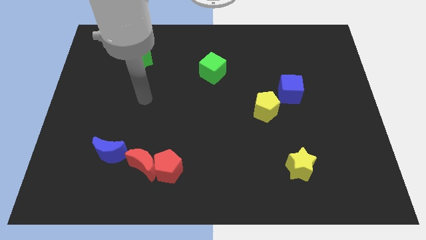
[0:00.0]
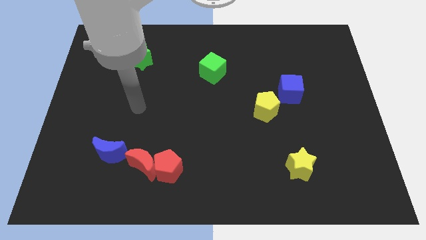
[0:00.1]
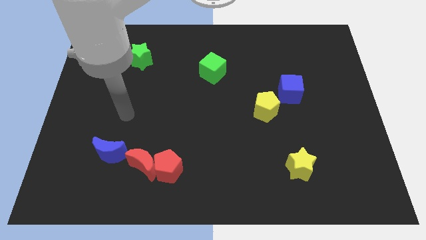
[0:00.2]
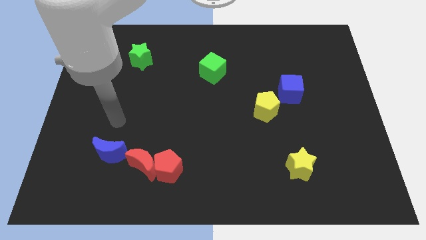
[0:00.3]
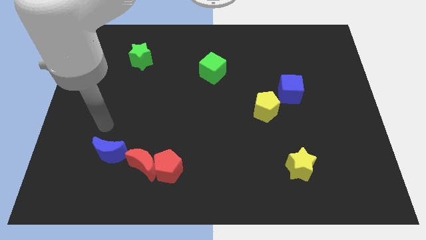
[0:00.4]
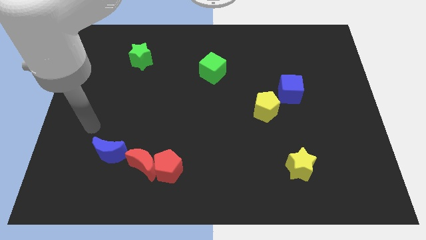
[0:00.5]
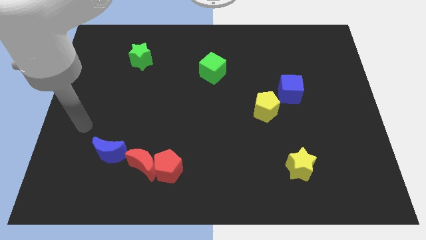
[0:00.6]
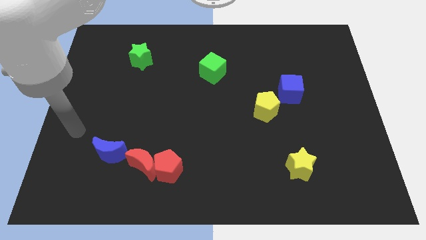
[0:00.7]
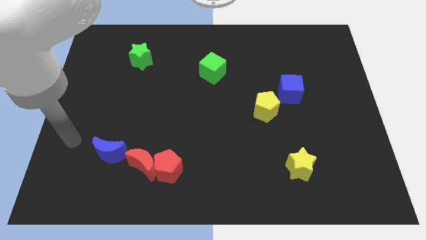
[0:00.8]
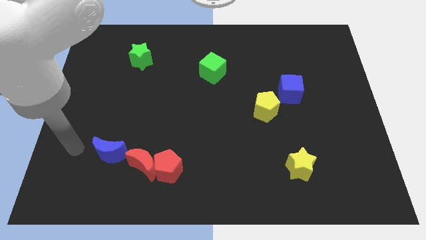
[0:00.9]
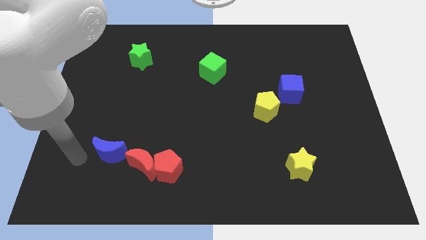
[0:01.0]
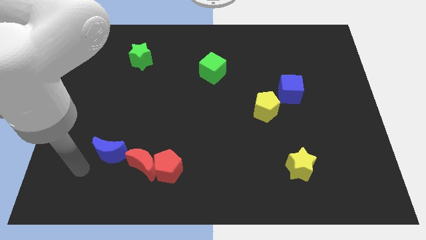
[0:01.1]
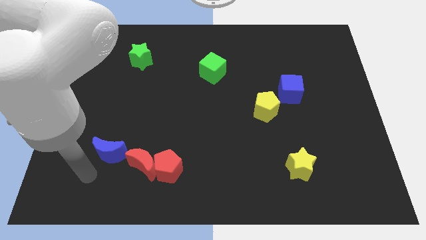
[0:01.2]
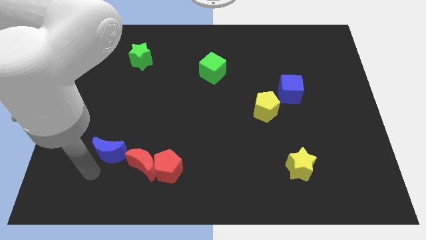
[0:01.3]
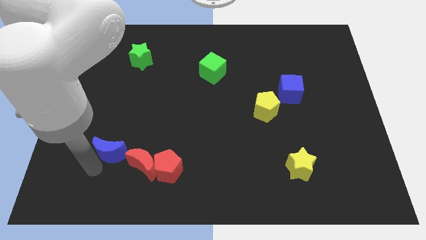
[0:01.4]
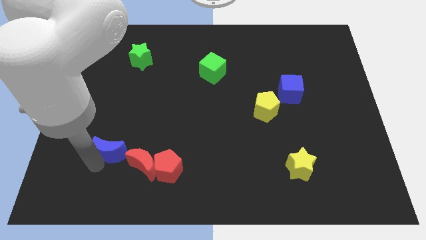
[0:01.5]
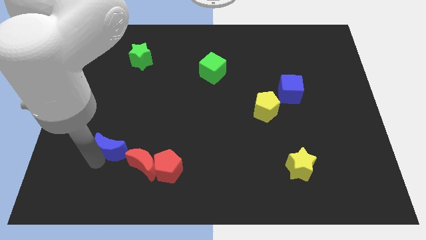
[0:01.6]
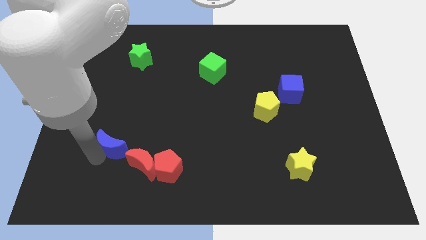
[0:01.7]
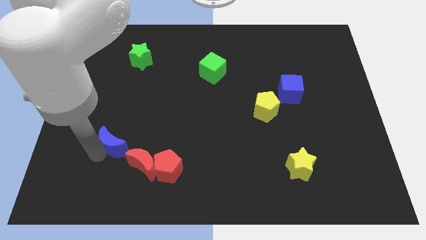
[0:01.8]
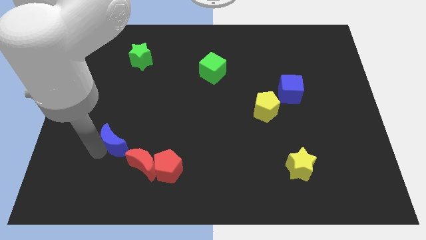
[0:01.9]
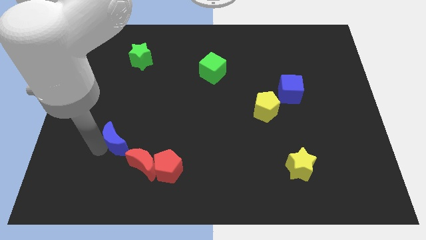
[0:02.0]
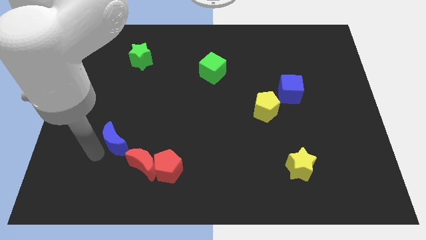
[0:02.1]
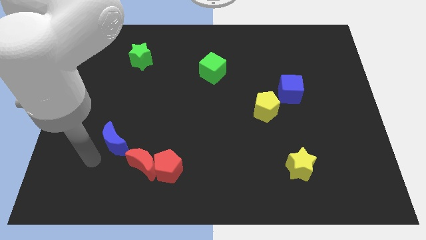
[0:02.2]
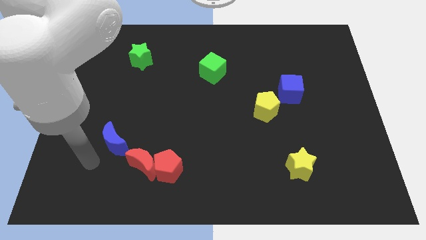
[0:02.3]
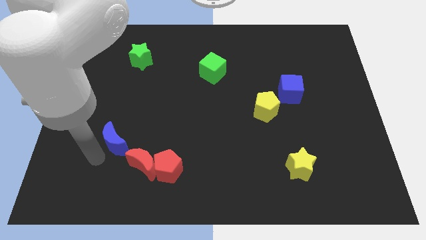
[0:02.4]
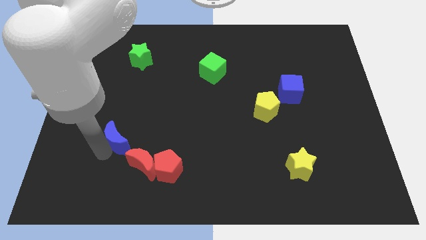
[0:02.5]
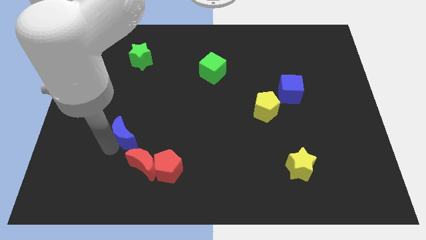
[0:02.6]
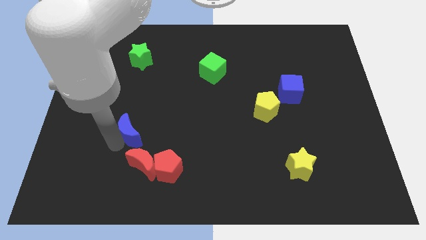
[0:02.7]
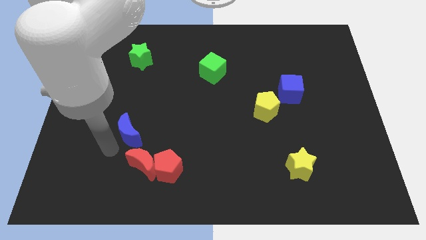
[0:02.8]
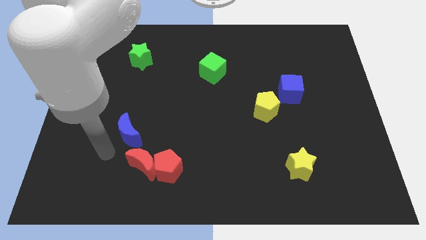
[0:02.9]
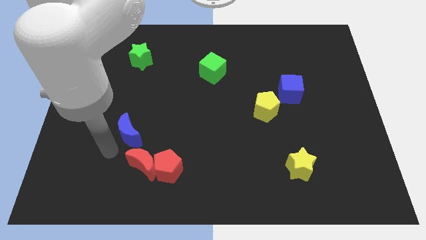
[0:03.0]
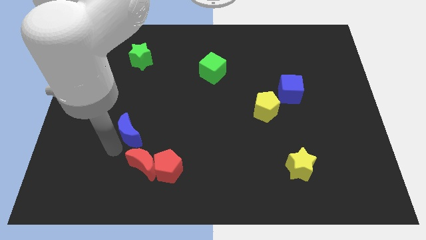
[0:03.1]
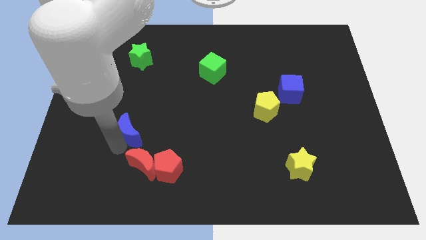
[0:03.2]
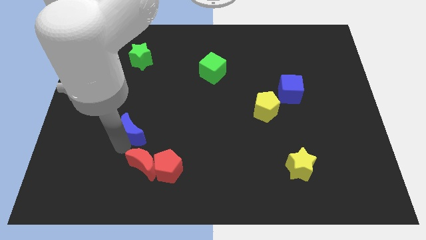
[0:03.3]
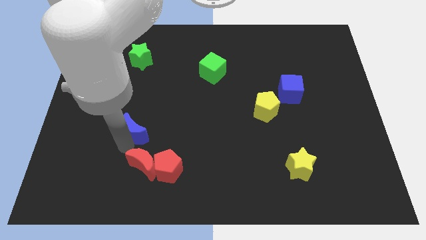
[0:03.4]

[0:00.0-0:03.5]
move the blue moon up and to the right a little

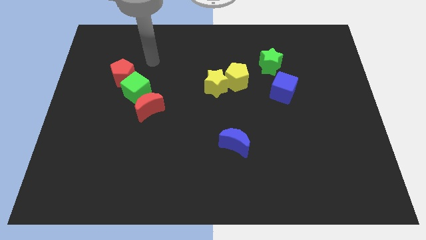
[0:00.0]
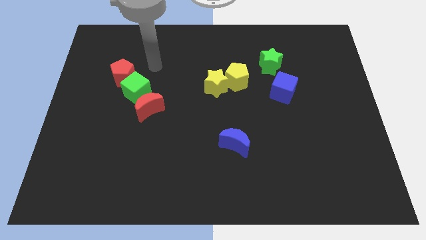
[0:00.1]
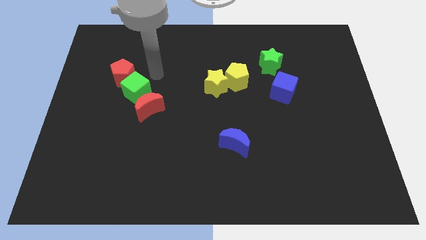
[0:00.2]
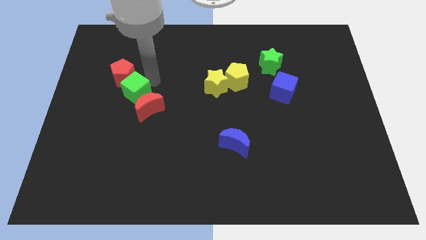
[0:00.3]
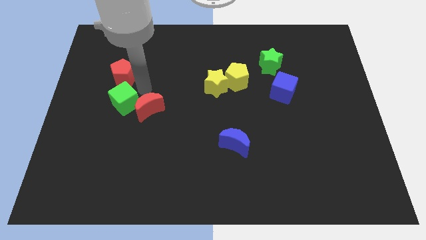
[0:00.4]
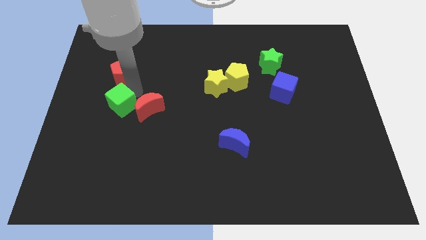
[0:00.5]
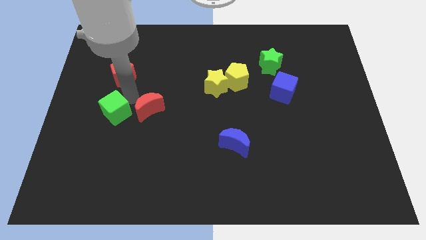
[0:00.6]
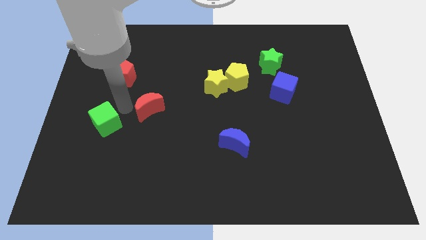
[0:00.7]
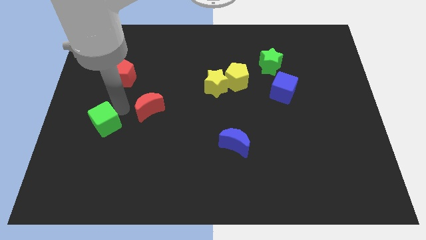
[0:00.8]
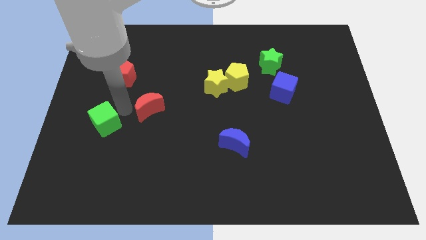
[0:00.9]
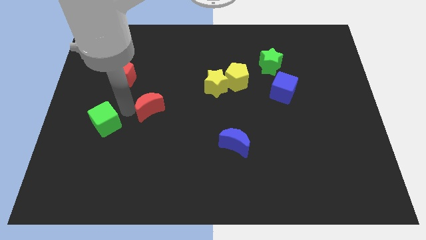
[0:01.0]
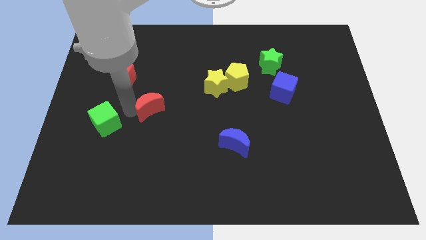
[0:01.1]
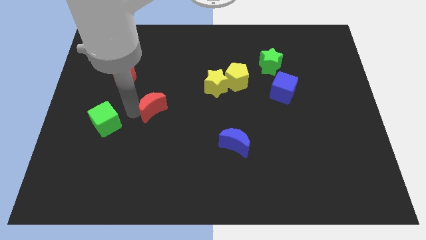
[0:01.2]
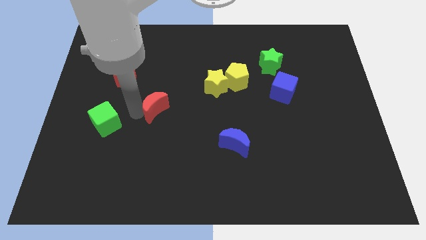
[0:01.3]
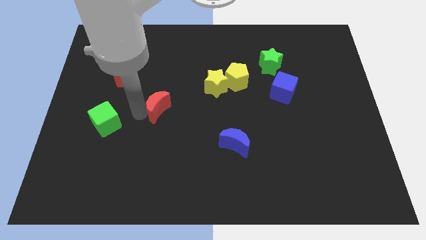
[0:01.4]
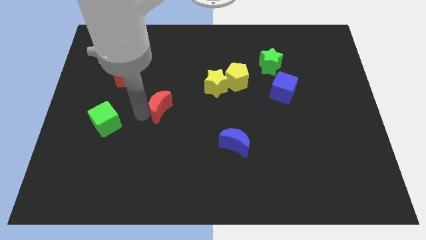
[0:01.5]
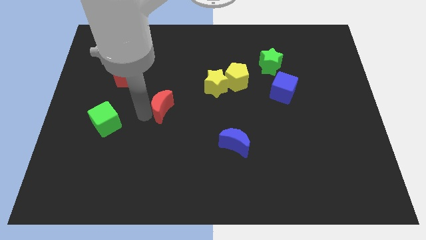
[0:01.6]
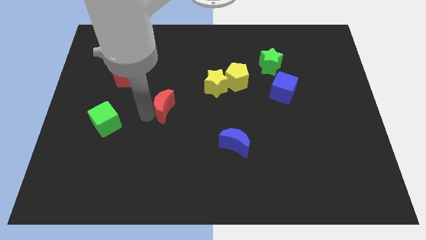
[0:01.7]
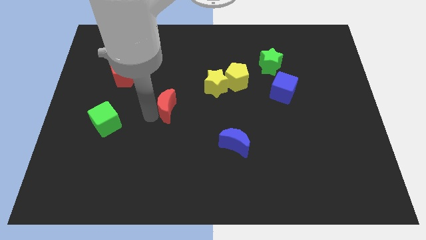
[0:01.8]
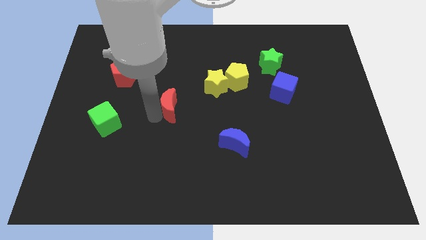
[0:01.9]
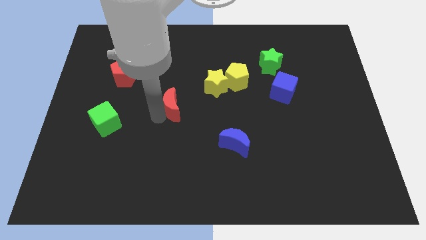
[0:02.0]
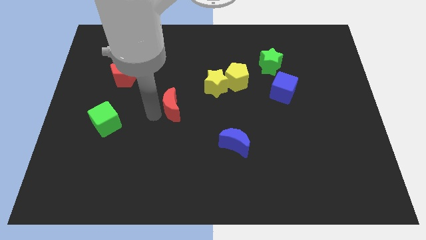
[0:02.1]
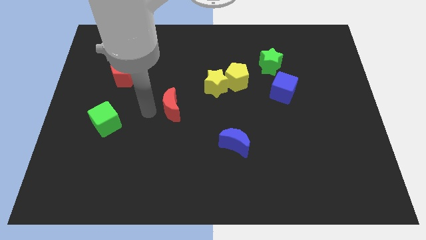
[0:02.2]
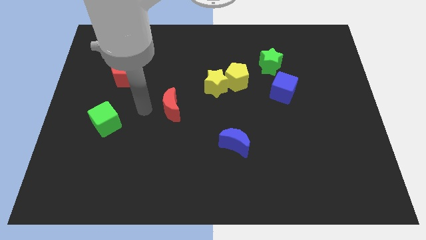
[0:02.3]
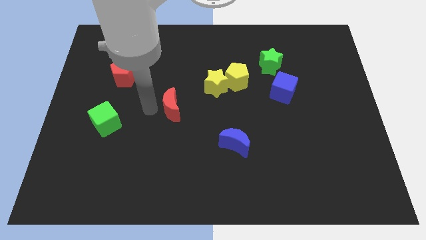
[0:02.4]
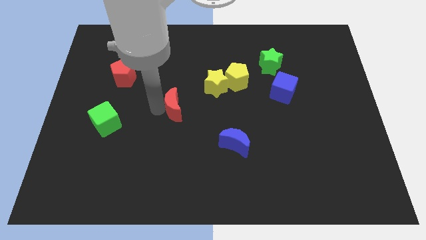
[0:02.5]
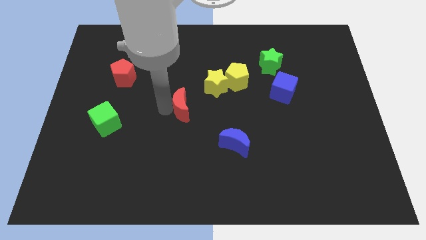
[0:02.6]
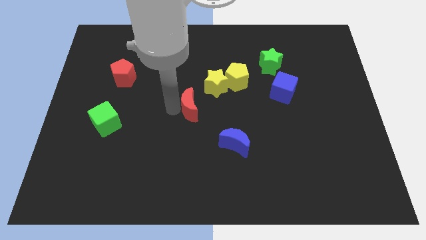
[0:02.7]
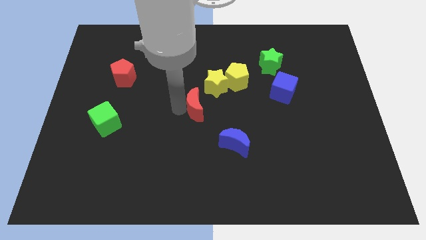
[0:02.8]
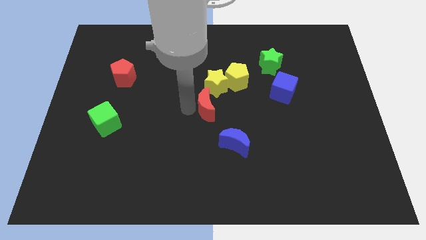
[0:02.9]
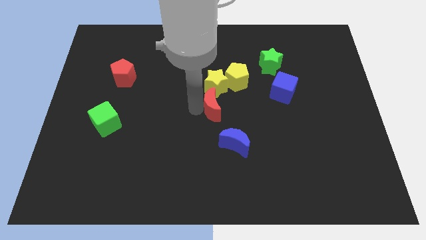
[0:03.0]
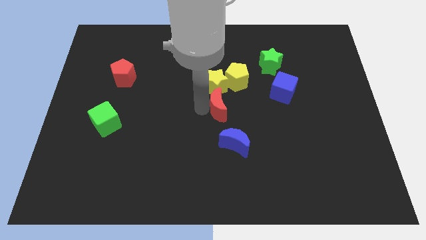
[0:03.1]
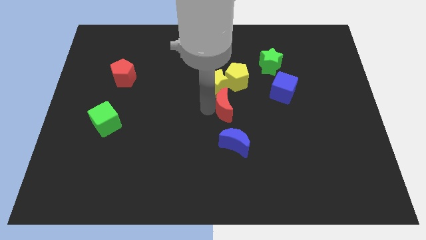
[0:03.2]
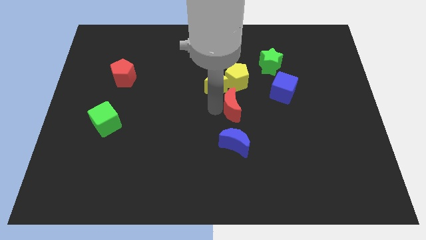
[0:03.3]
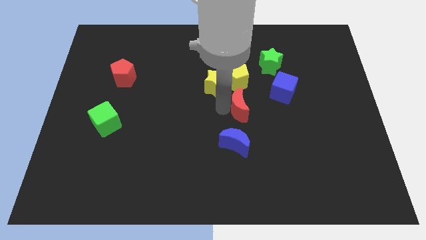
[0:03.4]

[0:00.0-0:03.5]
slide the red moon to the right

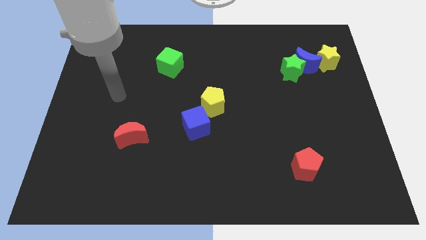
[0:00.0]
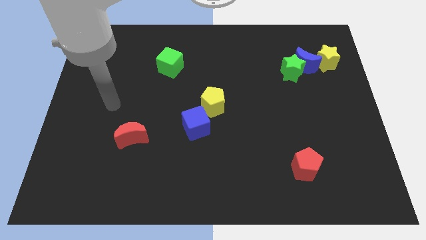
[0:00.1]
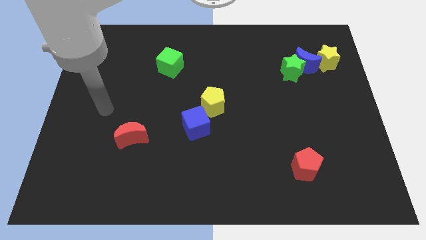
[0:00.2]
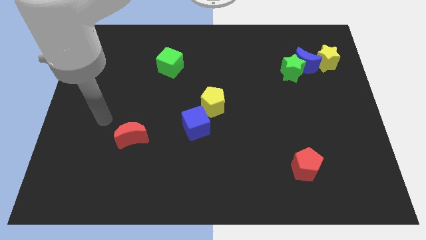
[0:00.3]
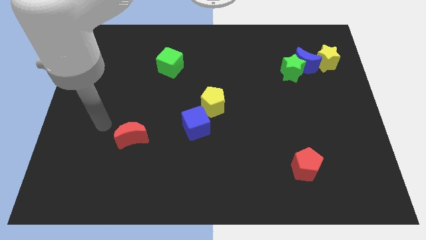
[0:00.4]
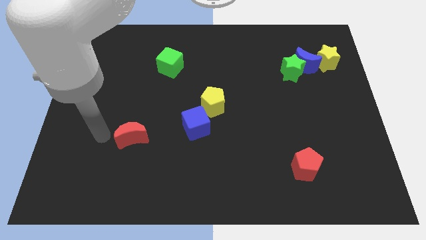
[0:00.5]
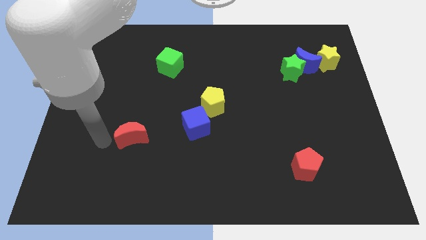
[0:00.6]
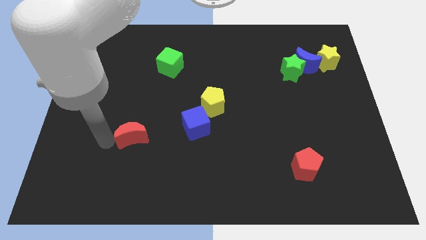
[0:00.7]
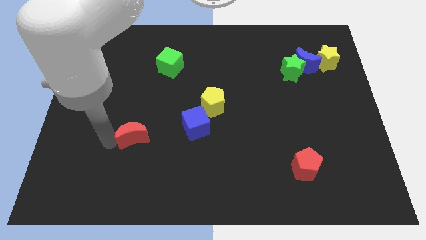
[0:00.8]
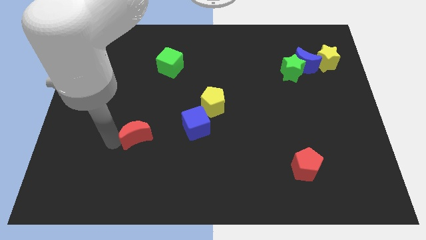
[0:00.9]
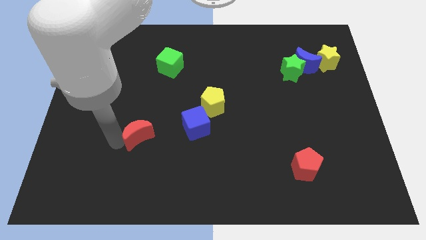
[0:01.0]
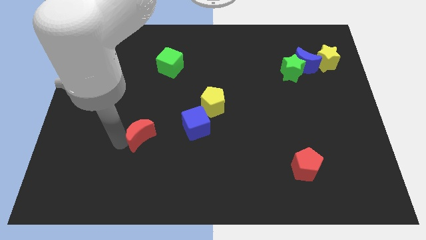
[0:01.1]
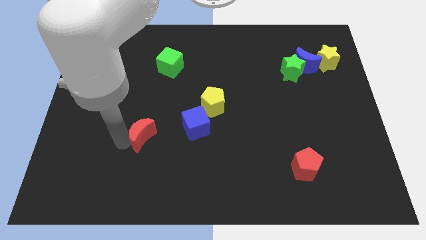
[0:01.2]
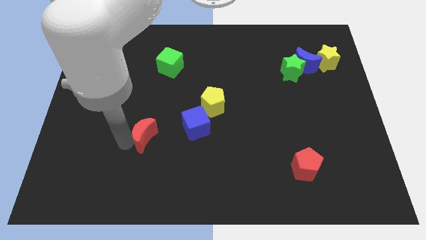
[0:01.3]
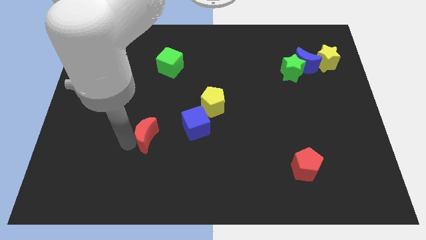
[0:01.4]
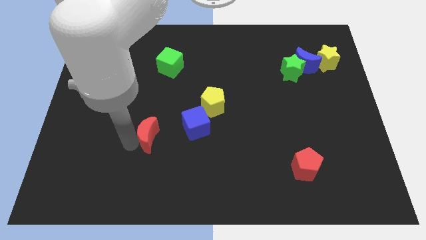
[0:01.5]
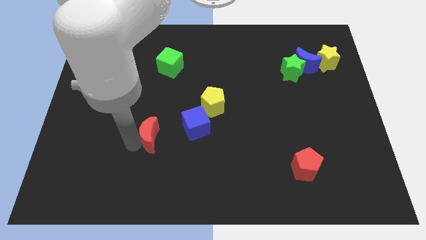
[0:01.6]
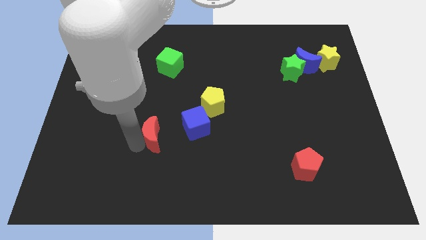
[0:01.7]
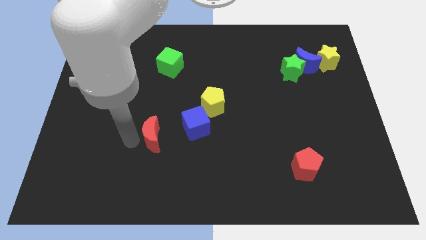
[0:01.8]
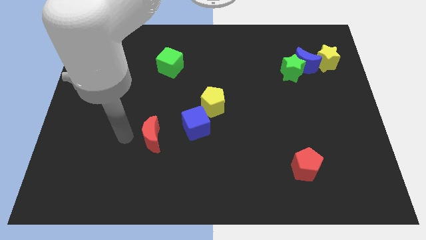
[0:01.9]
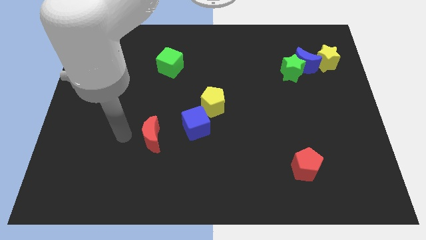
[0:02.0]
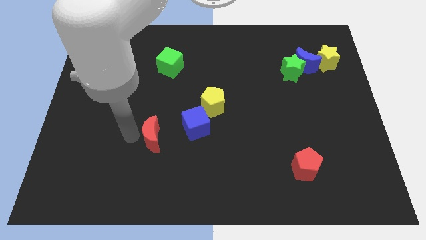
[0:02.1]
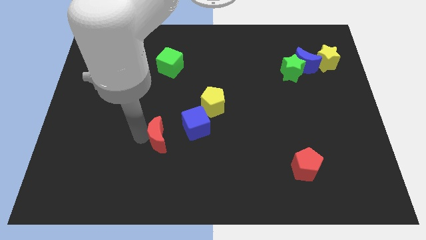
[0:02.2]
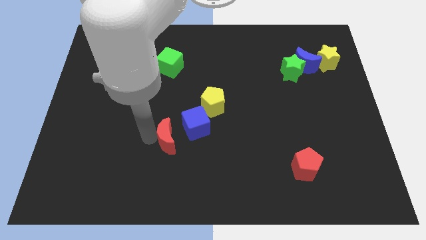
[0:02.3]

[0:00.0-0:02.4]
slide the red moon right slightly
